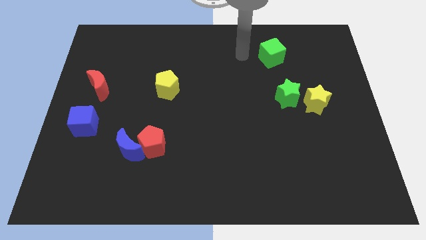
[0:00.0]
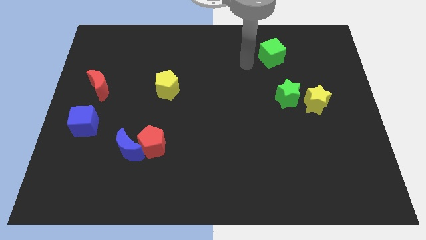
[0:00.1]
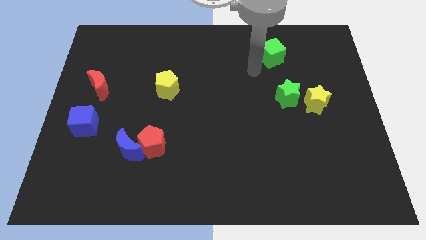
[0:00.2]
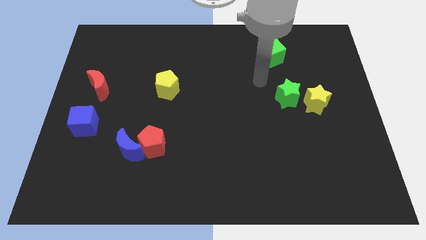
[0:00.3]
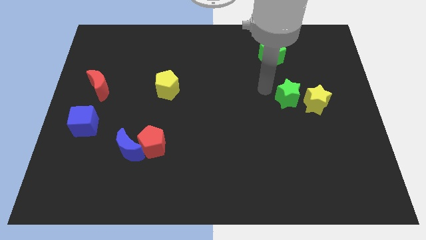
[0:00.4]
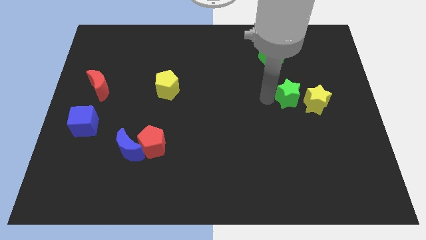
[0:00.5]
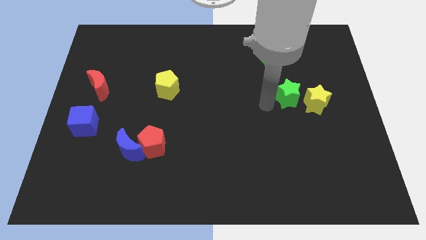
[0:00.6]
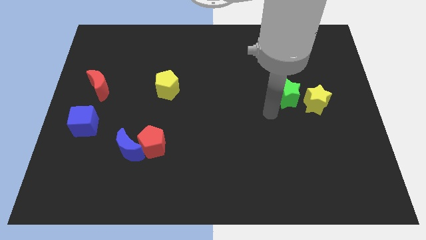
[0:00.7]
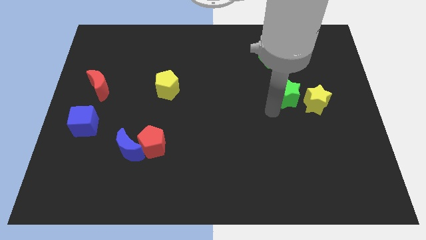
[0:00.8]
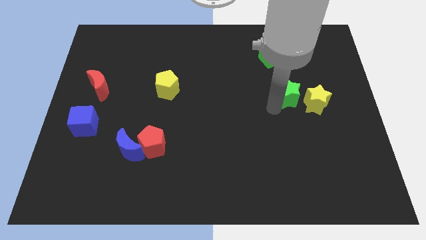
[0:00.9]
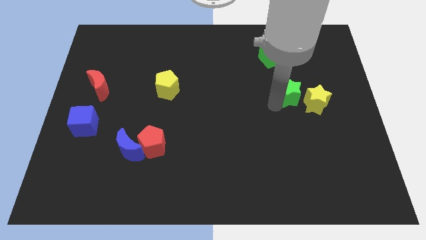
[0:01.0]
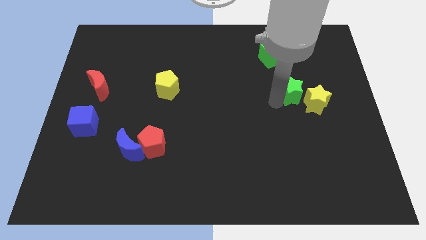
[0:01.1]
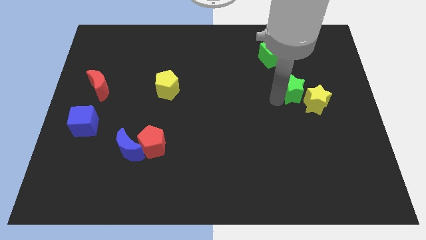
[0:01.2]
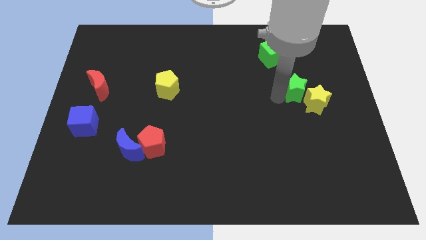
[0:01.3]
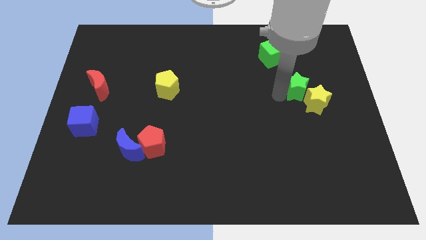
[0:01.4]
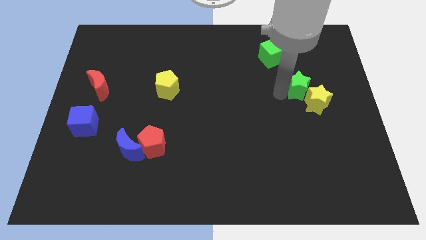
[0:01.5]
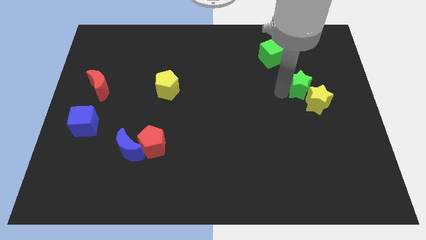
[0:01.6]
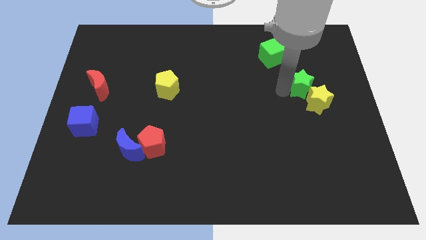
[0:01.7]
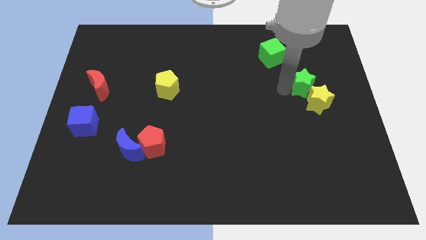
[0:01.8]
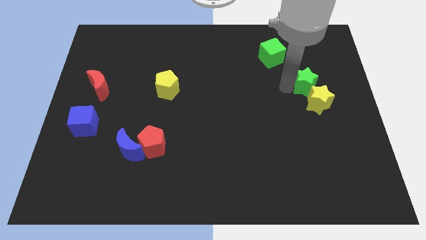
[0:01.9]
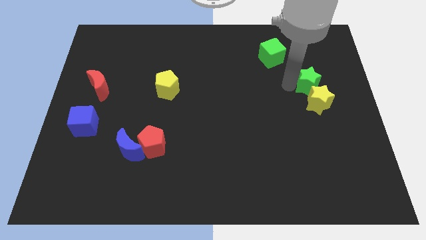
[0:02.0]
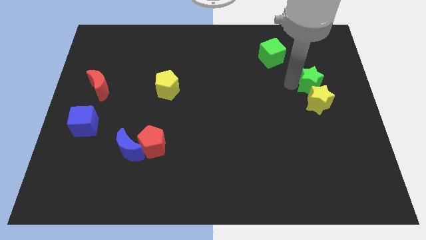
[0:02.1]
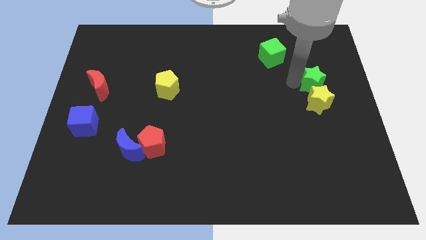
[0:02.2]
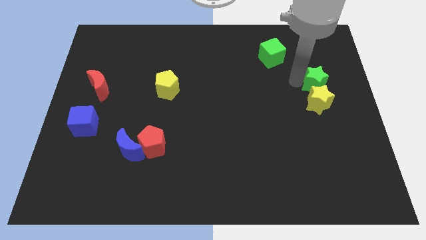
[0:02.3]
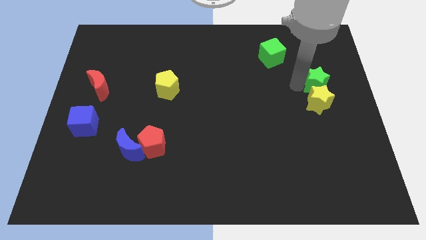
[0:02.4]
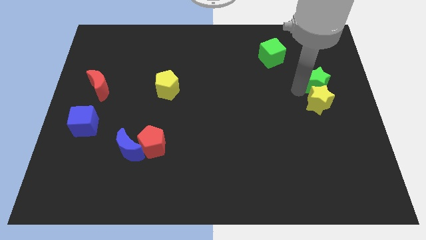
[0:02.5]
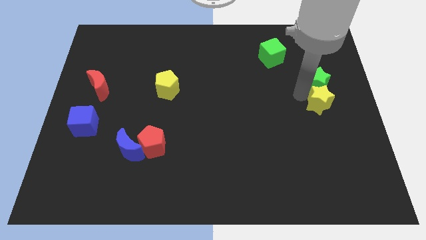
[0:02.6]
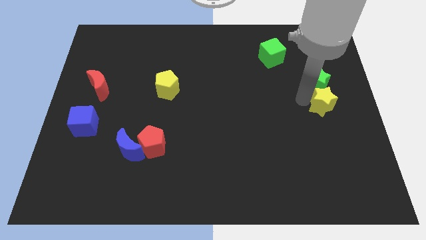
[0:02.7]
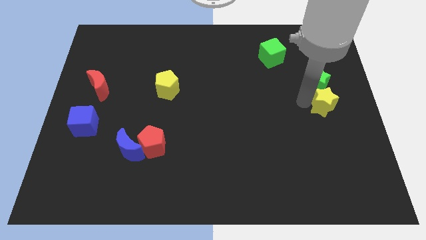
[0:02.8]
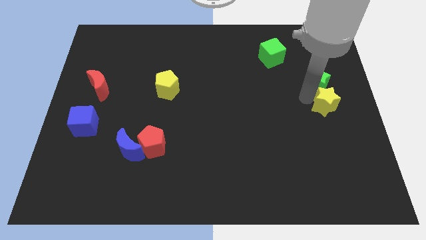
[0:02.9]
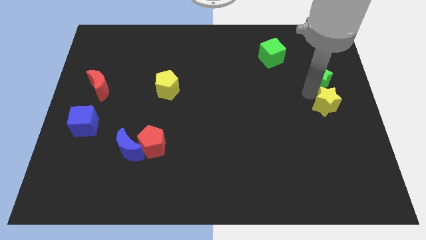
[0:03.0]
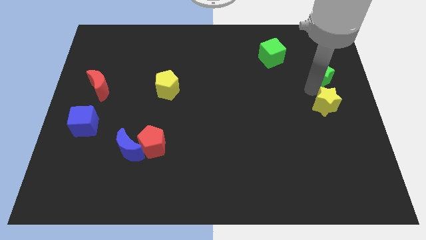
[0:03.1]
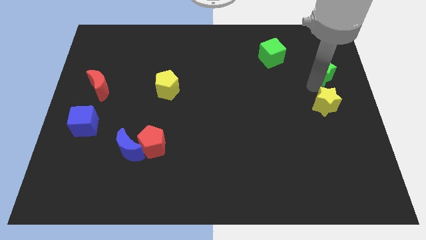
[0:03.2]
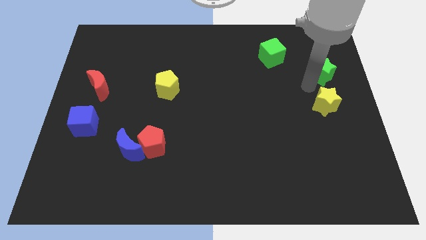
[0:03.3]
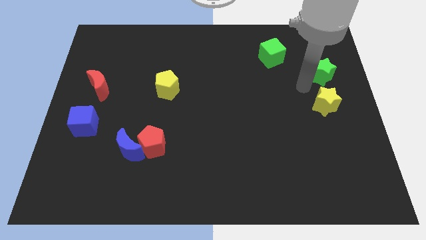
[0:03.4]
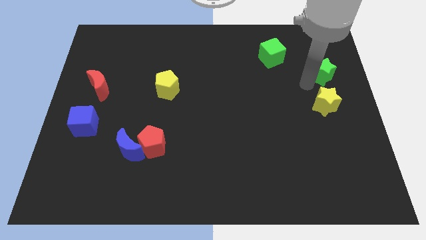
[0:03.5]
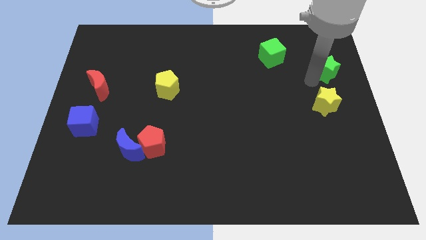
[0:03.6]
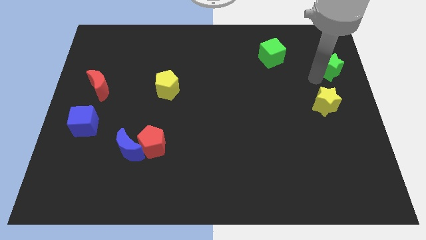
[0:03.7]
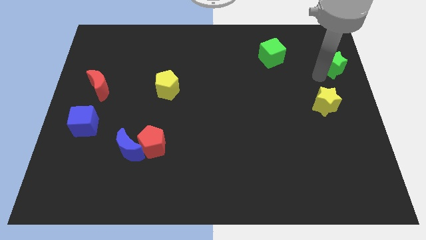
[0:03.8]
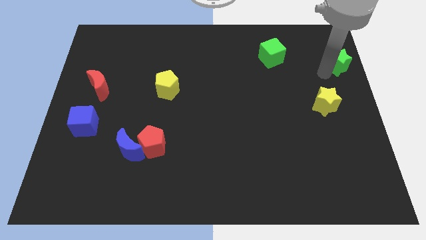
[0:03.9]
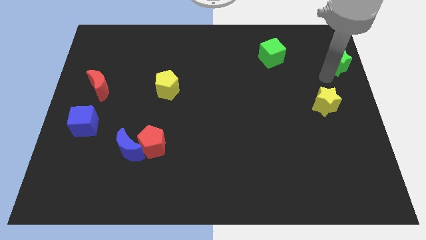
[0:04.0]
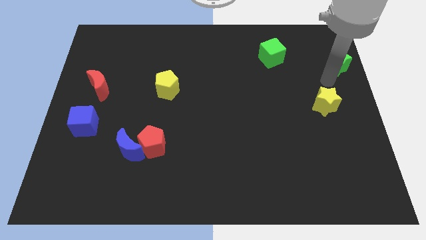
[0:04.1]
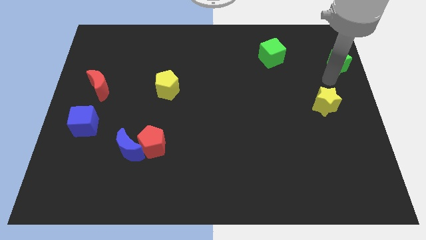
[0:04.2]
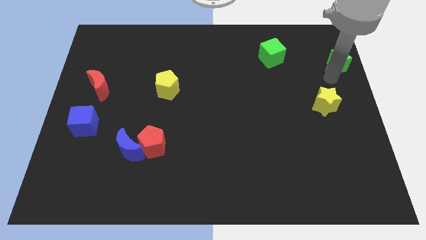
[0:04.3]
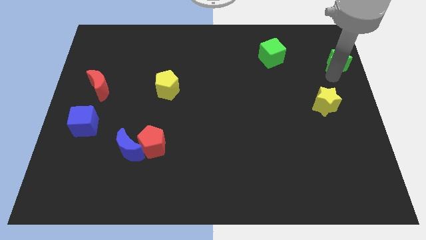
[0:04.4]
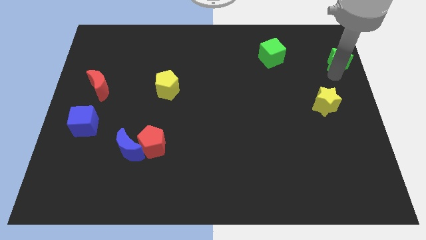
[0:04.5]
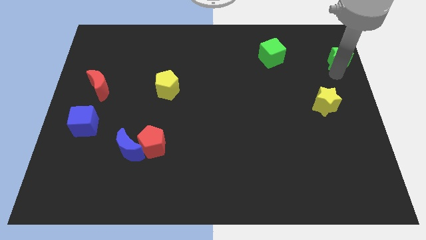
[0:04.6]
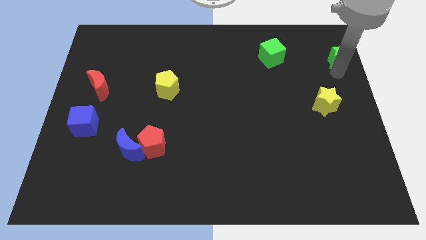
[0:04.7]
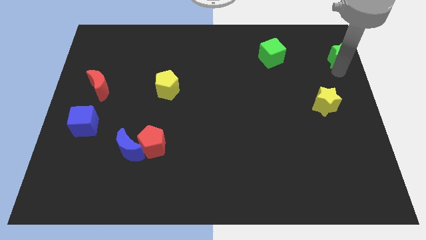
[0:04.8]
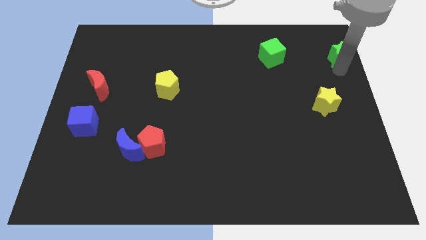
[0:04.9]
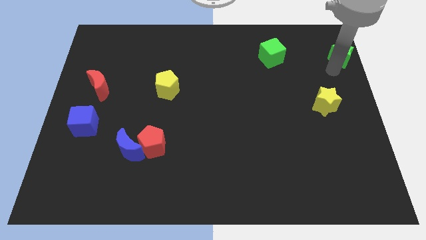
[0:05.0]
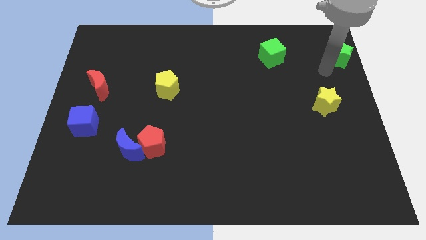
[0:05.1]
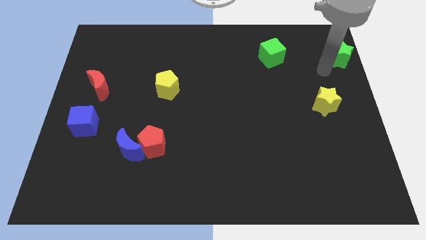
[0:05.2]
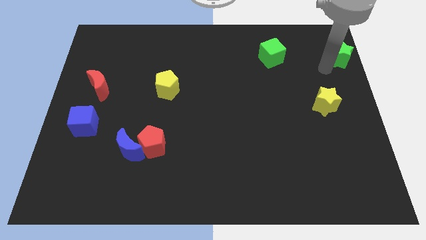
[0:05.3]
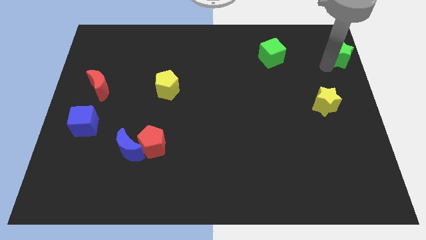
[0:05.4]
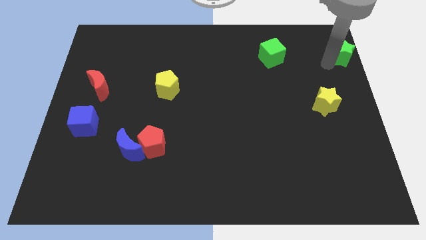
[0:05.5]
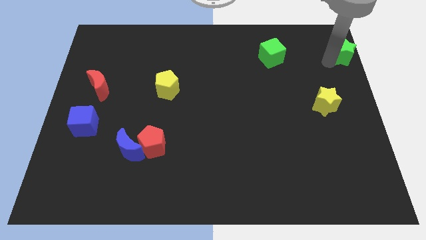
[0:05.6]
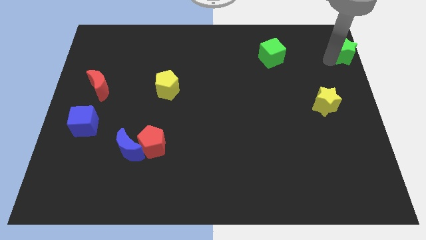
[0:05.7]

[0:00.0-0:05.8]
slide the green star to the upper right corner

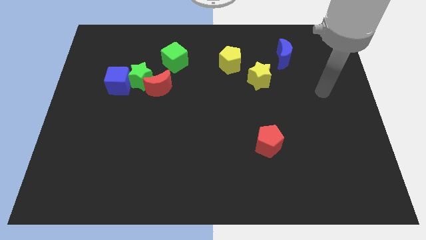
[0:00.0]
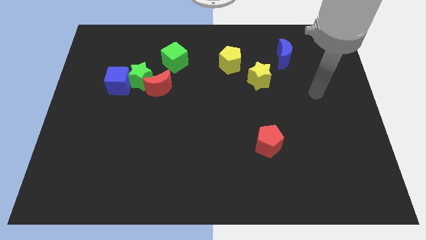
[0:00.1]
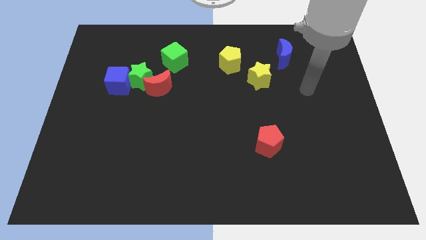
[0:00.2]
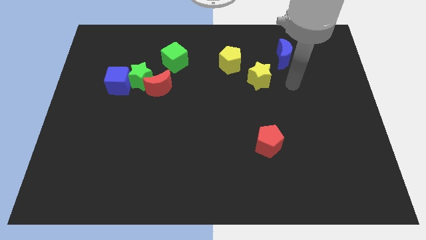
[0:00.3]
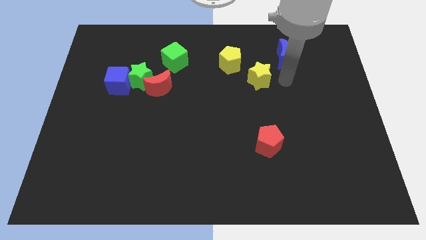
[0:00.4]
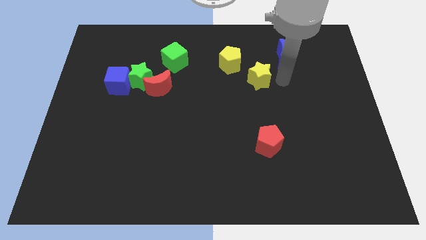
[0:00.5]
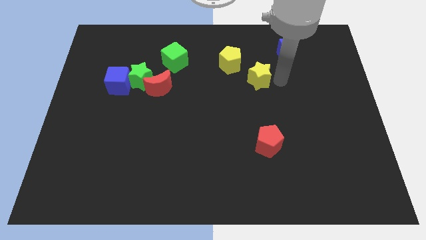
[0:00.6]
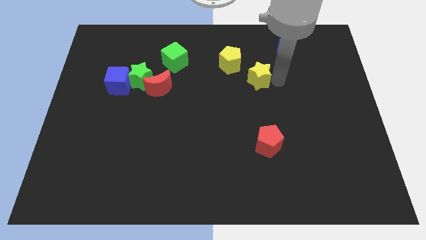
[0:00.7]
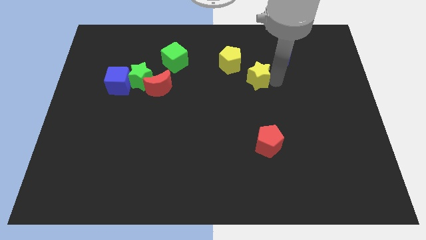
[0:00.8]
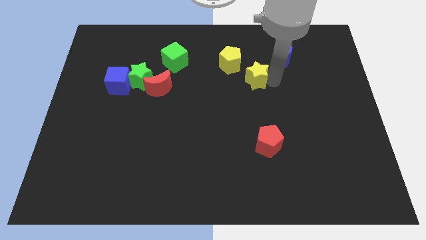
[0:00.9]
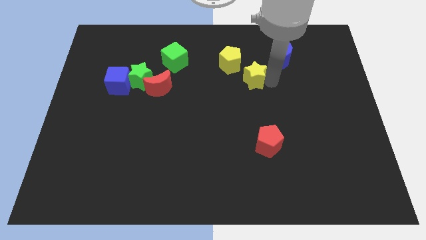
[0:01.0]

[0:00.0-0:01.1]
move the yellow star to the center of the board

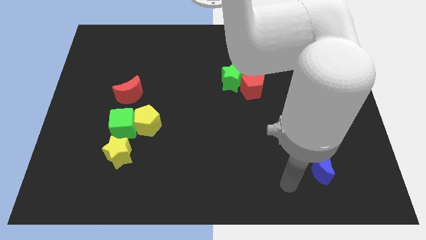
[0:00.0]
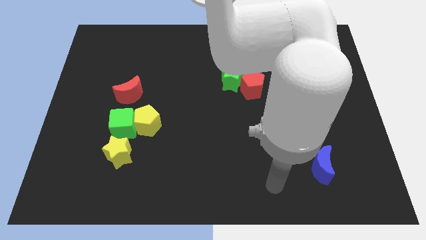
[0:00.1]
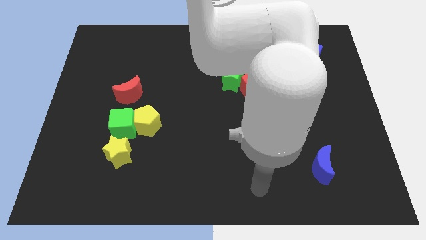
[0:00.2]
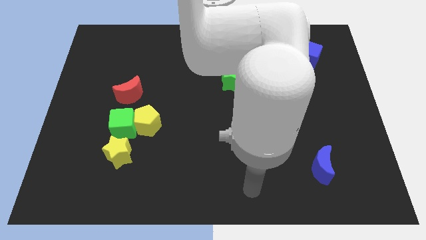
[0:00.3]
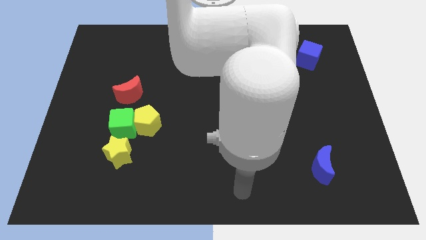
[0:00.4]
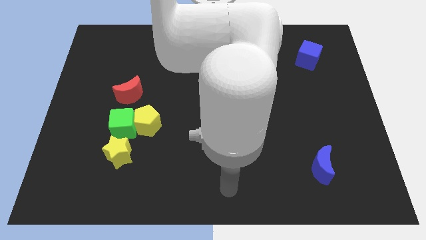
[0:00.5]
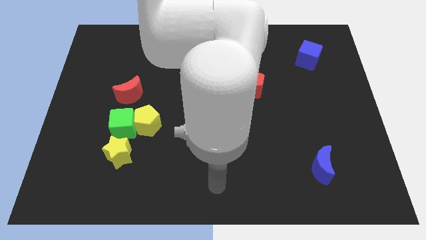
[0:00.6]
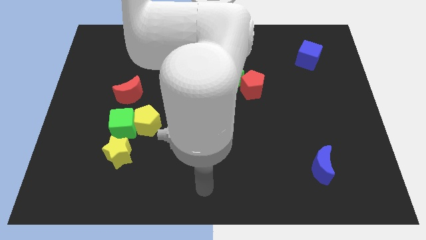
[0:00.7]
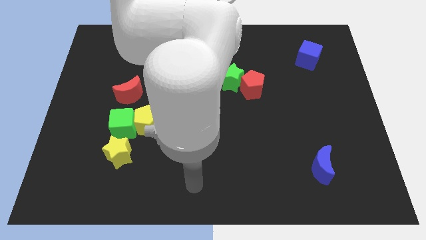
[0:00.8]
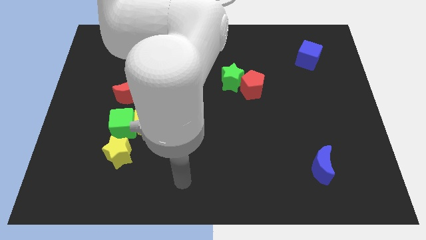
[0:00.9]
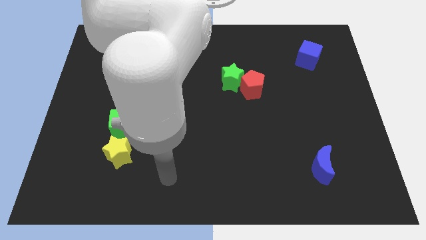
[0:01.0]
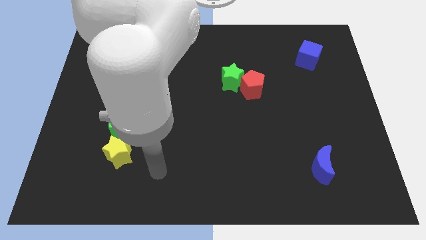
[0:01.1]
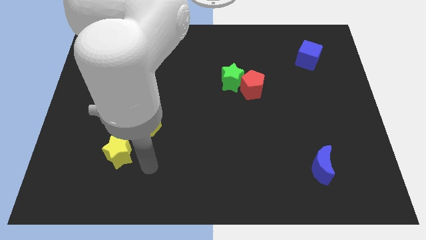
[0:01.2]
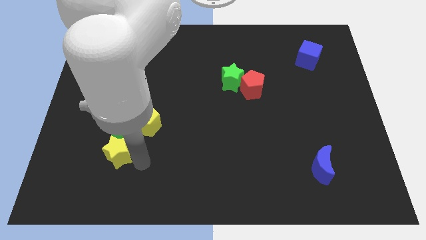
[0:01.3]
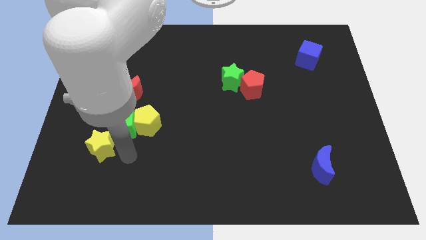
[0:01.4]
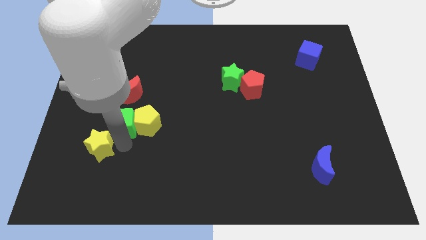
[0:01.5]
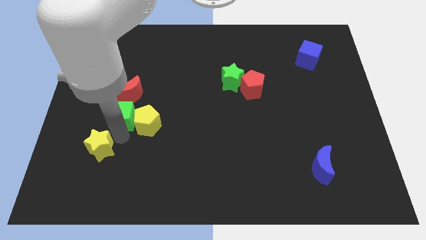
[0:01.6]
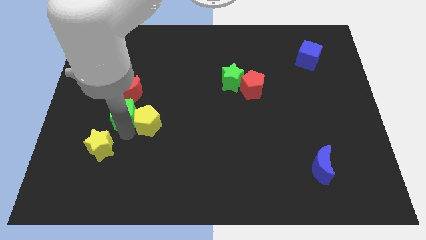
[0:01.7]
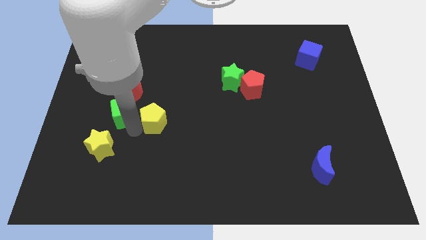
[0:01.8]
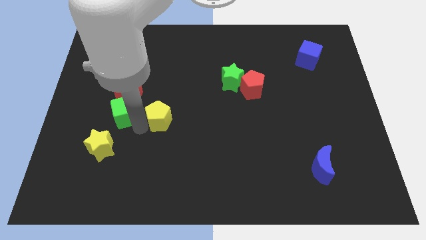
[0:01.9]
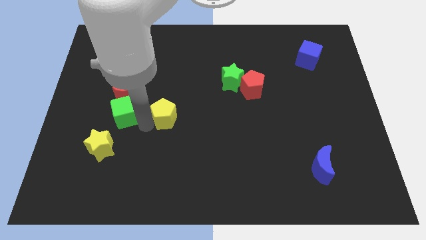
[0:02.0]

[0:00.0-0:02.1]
move the yellow pentagon to the center
